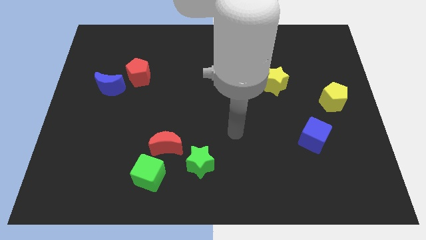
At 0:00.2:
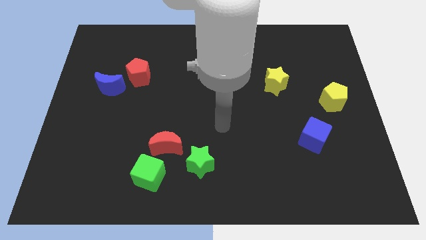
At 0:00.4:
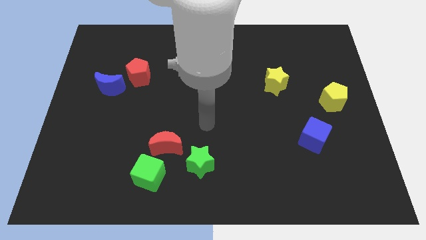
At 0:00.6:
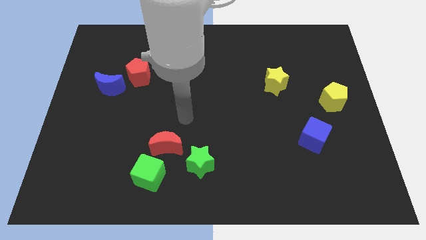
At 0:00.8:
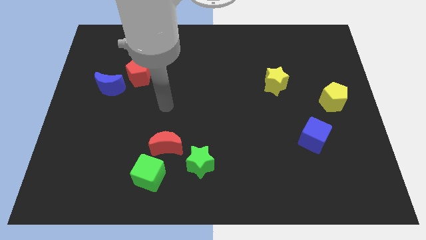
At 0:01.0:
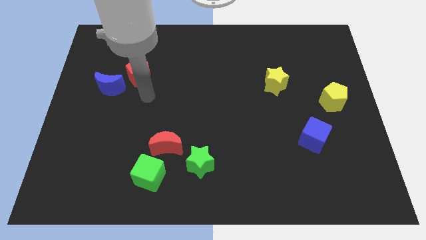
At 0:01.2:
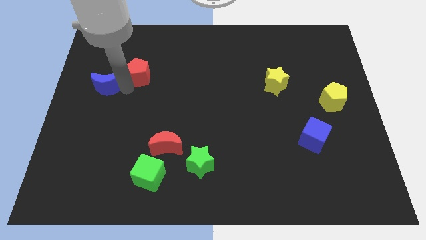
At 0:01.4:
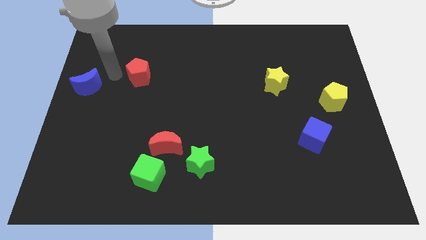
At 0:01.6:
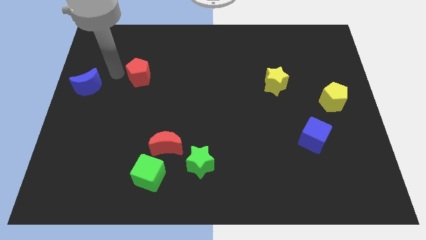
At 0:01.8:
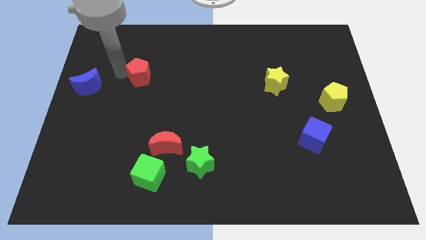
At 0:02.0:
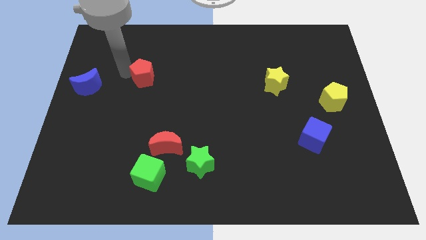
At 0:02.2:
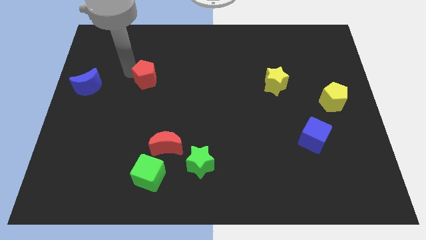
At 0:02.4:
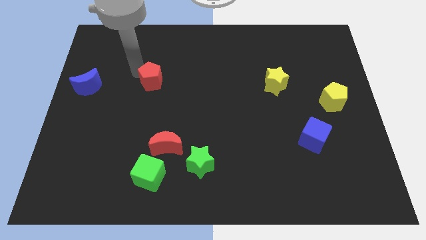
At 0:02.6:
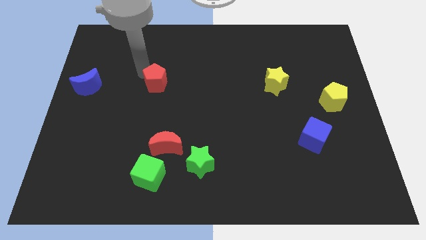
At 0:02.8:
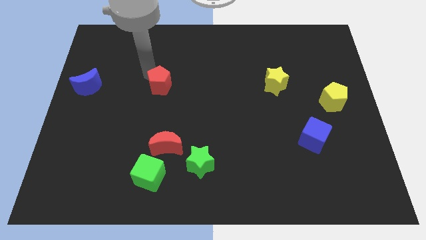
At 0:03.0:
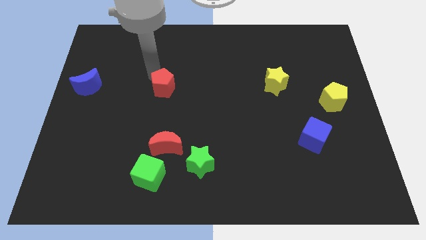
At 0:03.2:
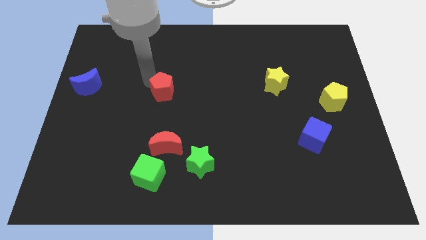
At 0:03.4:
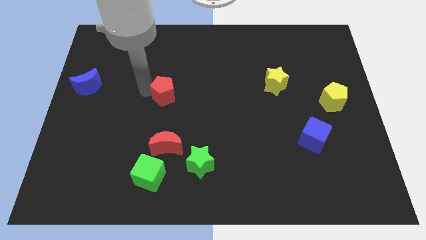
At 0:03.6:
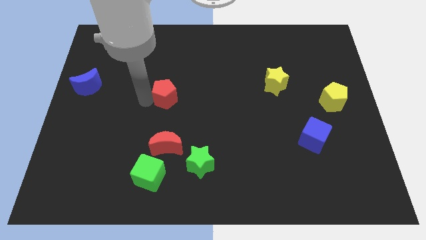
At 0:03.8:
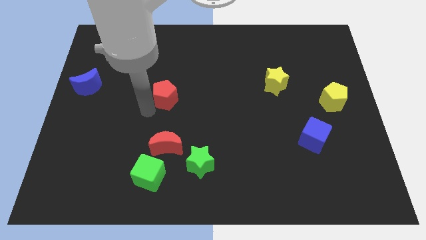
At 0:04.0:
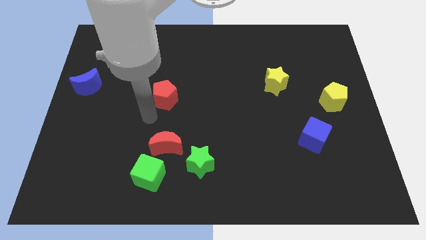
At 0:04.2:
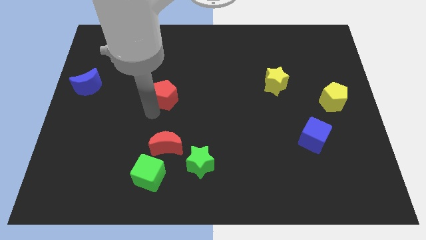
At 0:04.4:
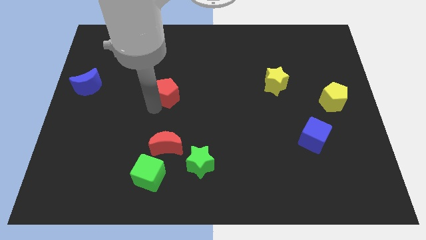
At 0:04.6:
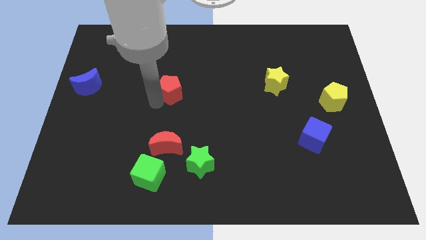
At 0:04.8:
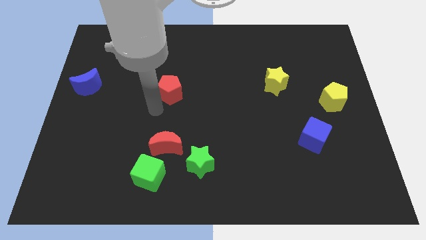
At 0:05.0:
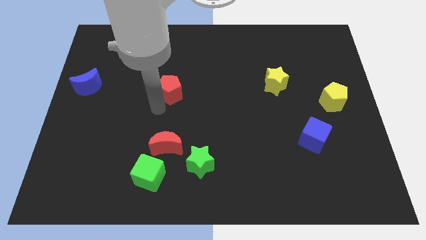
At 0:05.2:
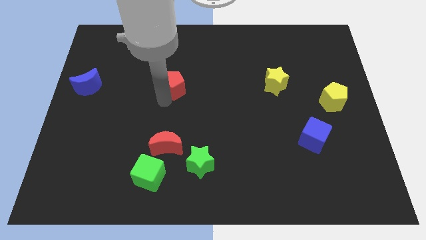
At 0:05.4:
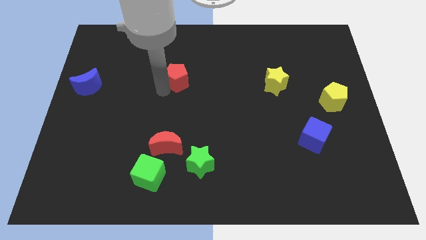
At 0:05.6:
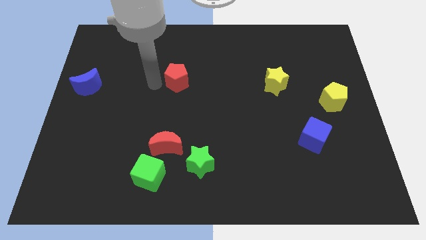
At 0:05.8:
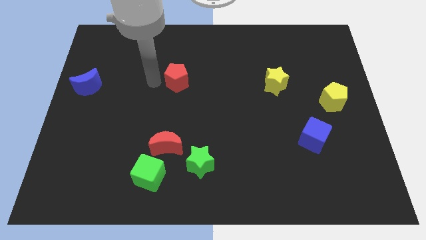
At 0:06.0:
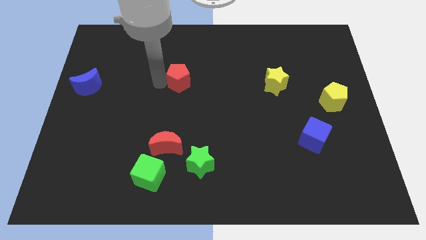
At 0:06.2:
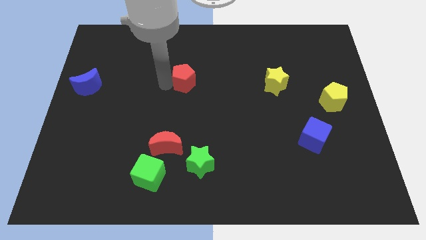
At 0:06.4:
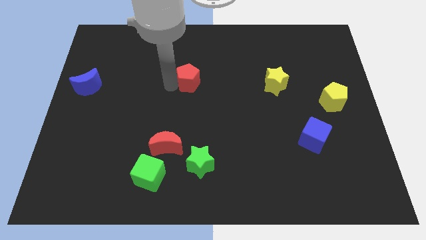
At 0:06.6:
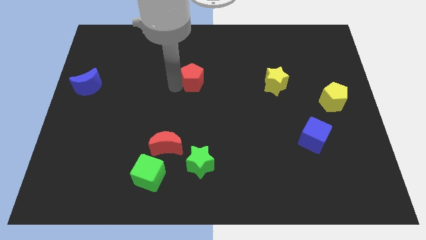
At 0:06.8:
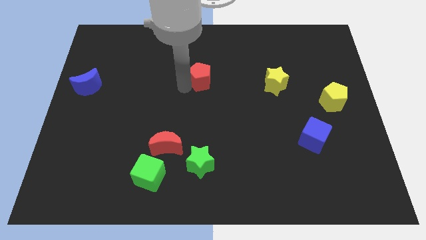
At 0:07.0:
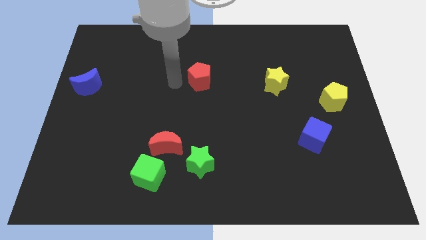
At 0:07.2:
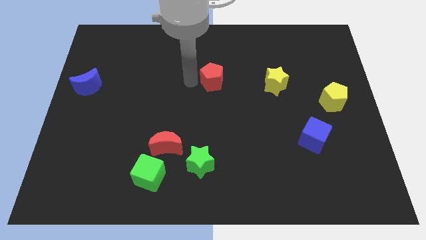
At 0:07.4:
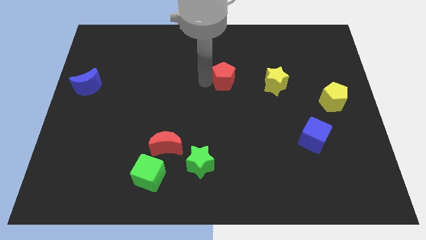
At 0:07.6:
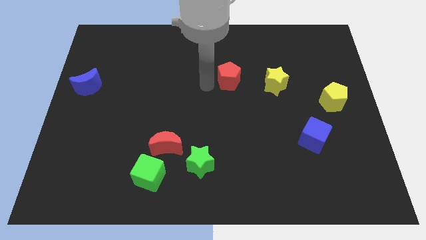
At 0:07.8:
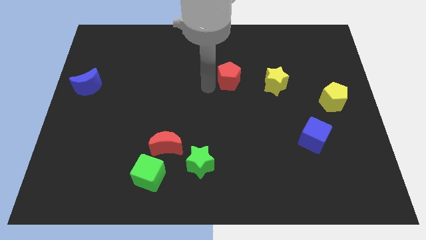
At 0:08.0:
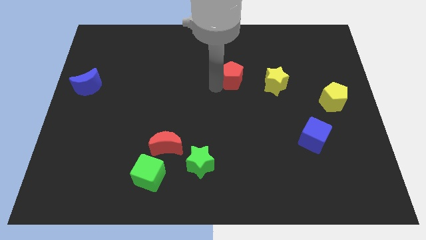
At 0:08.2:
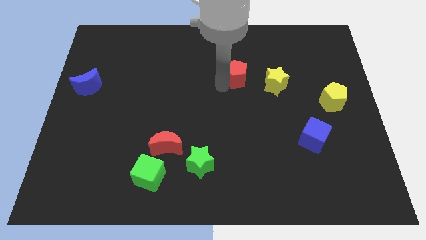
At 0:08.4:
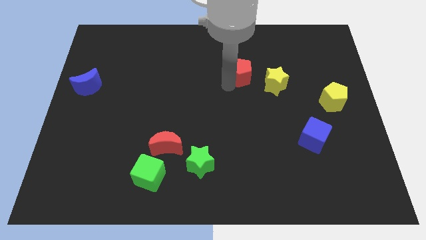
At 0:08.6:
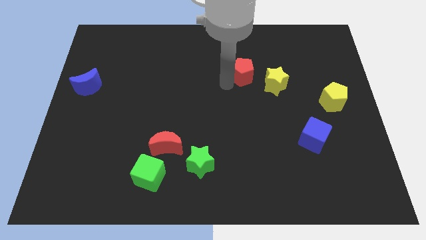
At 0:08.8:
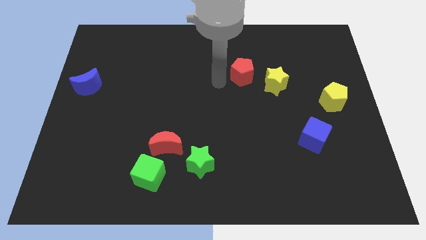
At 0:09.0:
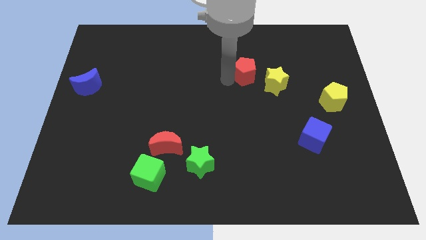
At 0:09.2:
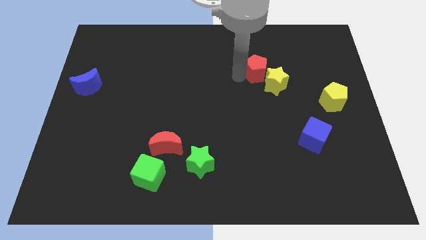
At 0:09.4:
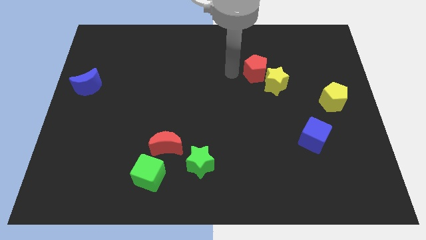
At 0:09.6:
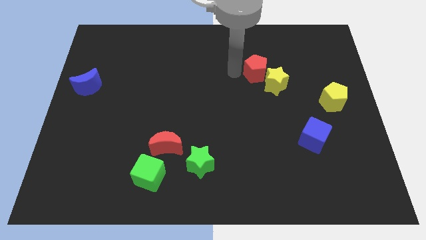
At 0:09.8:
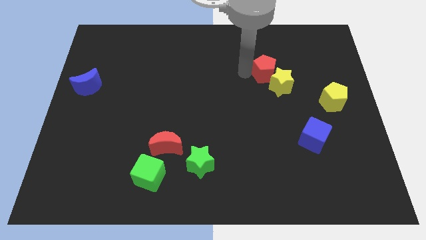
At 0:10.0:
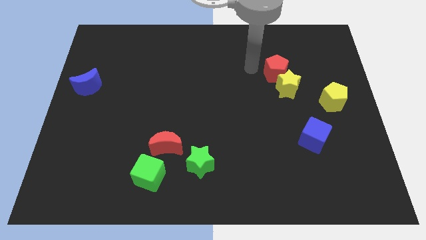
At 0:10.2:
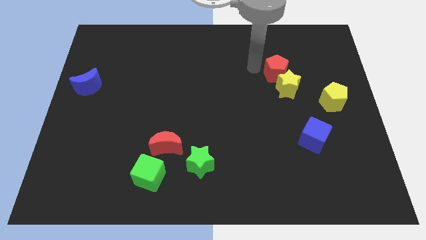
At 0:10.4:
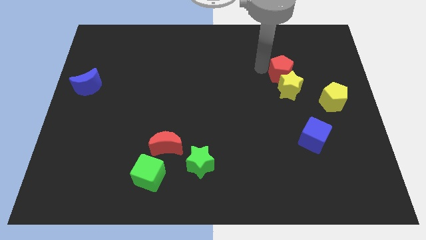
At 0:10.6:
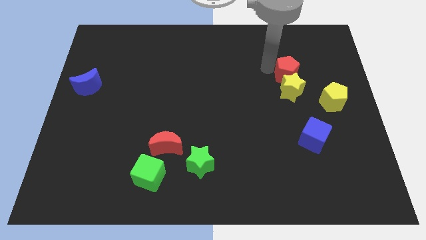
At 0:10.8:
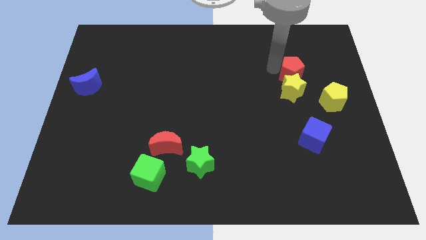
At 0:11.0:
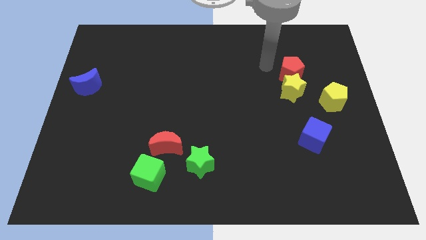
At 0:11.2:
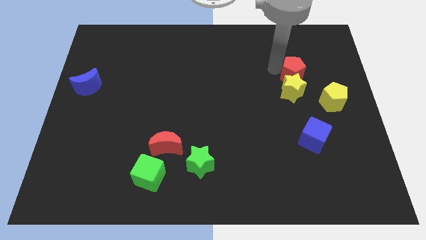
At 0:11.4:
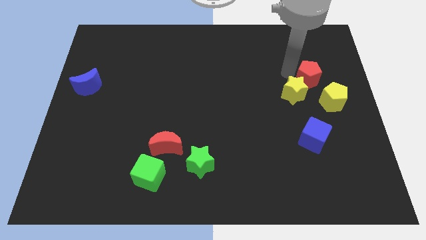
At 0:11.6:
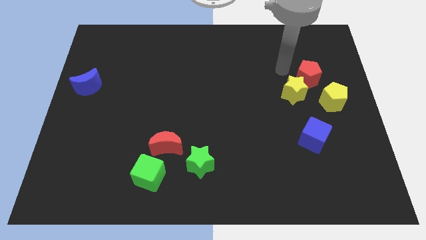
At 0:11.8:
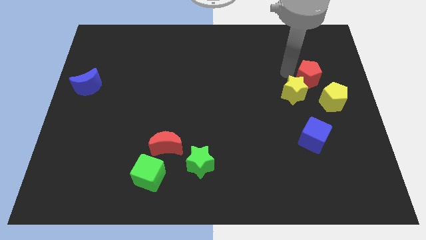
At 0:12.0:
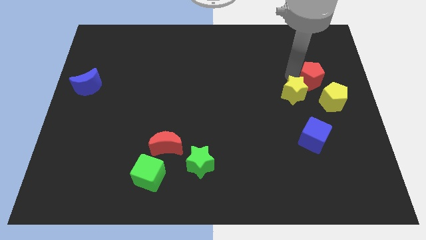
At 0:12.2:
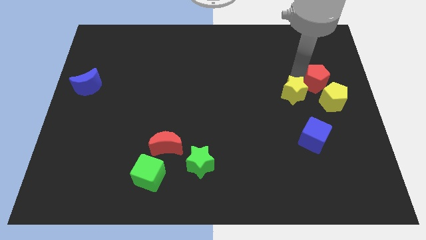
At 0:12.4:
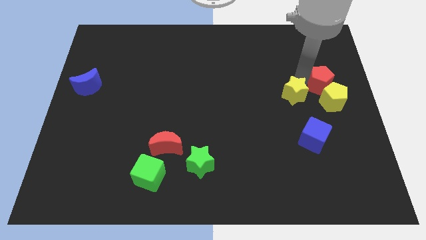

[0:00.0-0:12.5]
move the red pentagon to the right side of the board
